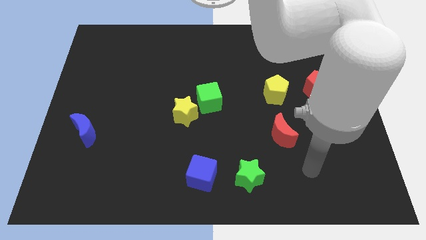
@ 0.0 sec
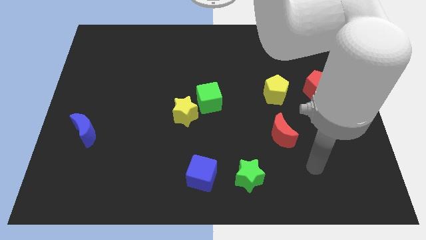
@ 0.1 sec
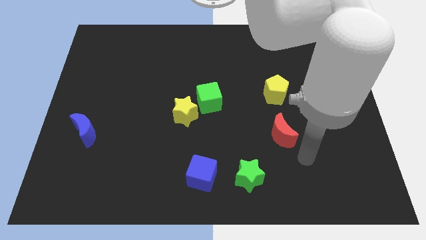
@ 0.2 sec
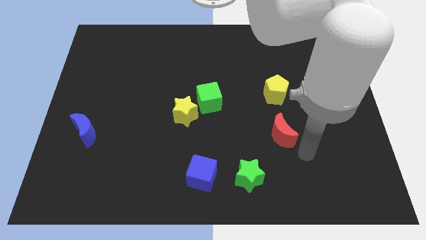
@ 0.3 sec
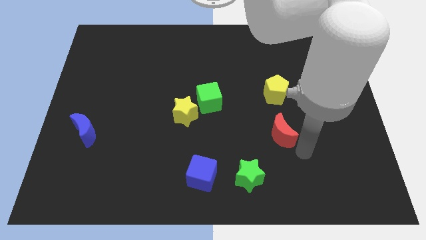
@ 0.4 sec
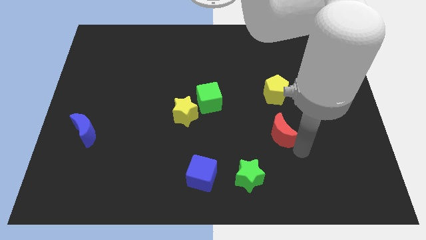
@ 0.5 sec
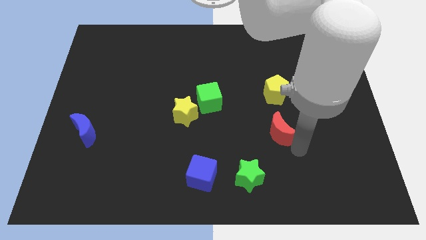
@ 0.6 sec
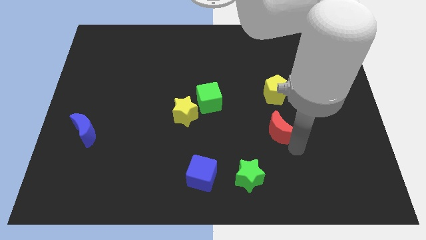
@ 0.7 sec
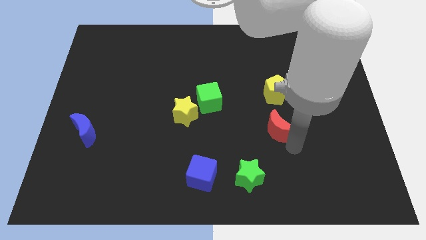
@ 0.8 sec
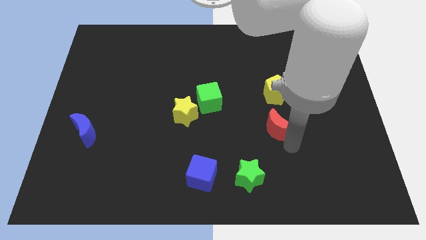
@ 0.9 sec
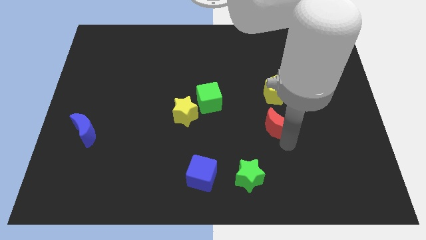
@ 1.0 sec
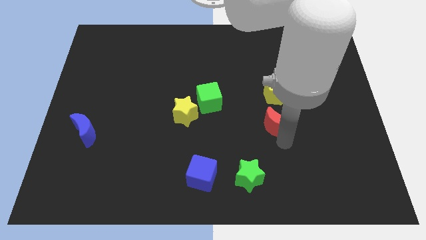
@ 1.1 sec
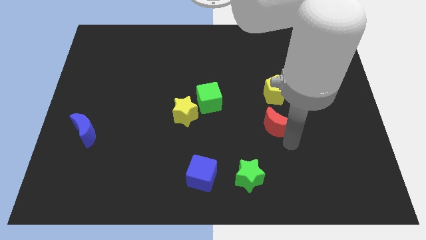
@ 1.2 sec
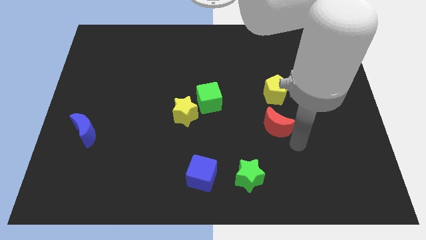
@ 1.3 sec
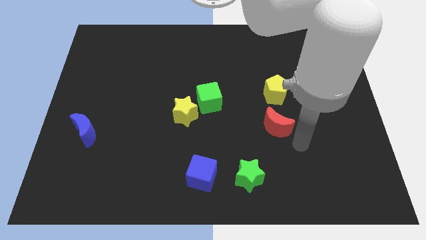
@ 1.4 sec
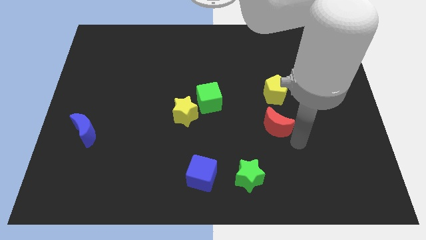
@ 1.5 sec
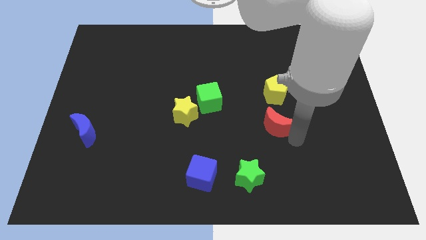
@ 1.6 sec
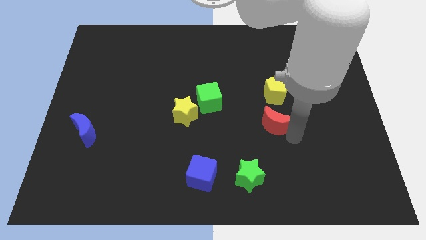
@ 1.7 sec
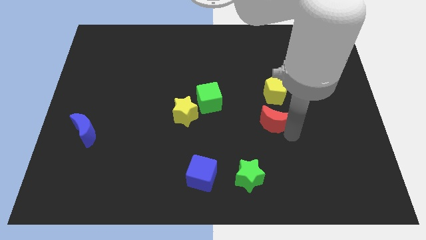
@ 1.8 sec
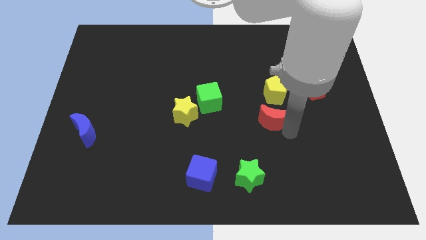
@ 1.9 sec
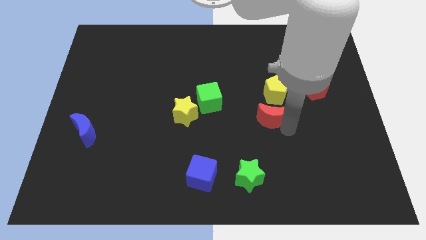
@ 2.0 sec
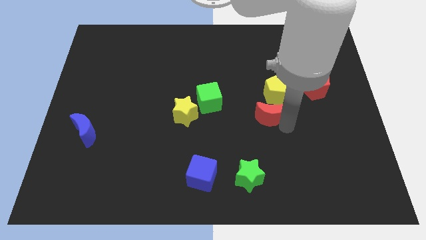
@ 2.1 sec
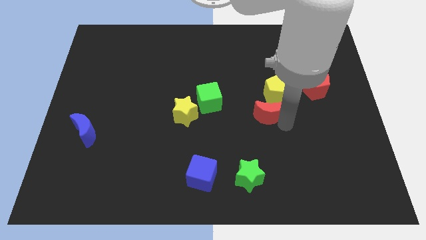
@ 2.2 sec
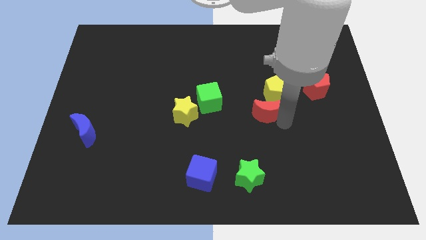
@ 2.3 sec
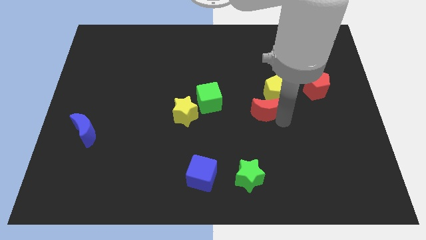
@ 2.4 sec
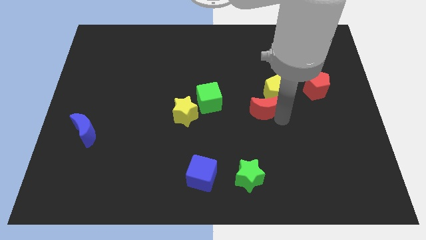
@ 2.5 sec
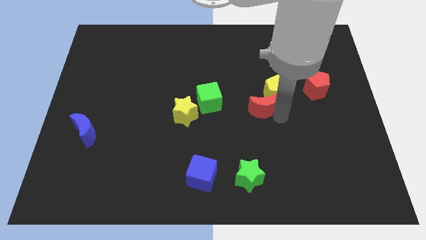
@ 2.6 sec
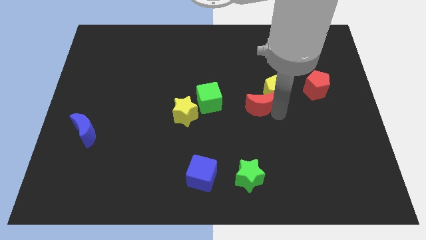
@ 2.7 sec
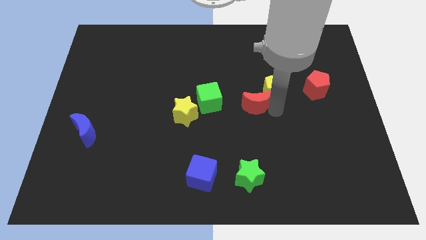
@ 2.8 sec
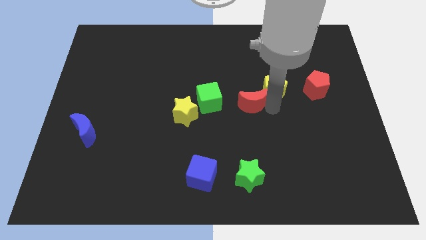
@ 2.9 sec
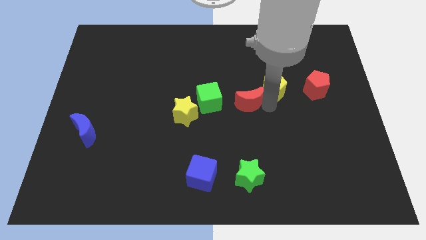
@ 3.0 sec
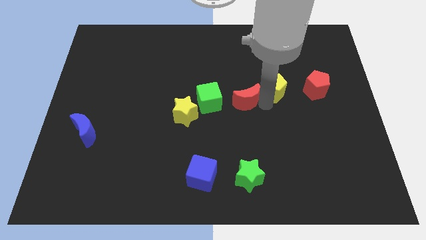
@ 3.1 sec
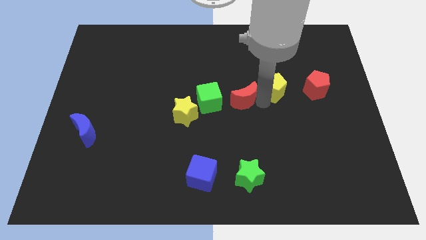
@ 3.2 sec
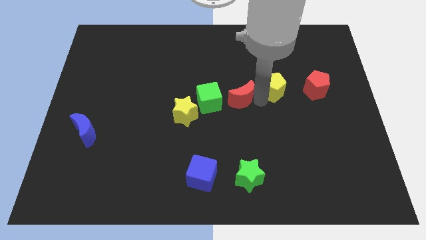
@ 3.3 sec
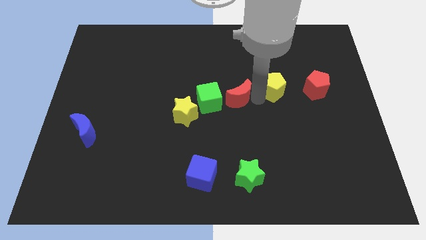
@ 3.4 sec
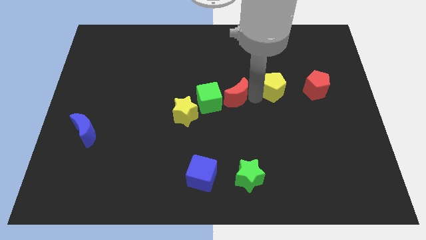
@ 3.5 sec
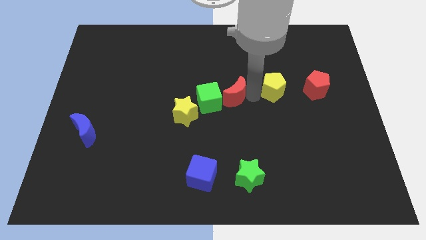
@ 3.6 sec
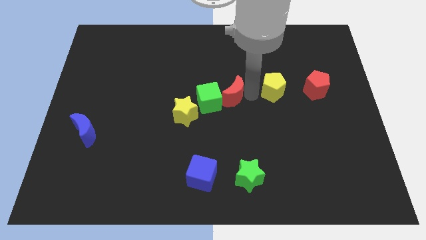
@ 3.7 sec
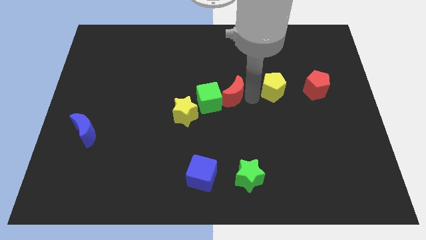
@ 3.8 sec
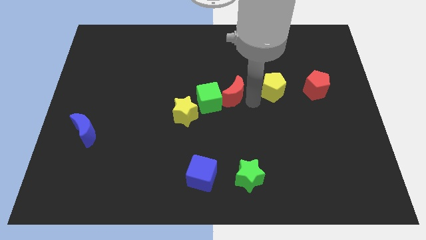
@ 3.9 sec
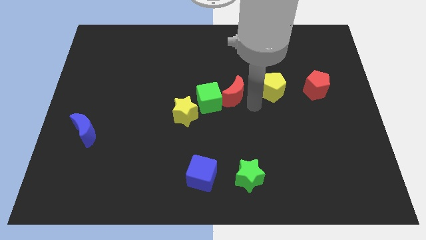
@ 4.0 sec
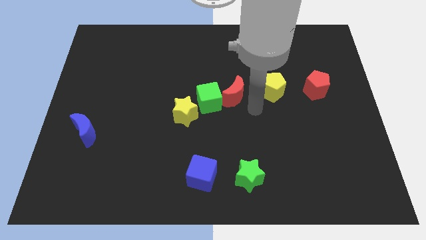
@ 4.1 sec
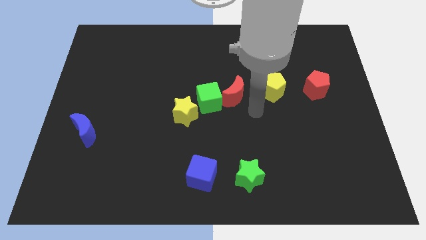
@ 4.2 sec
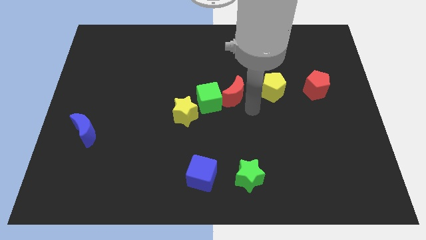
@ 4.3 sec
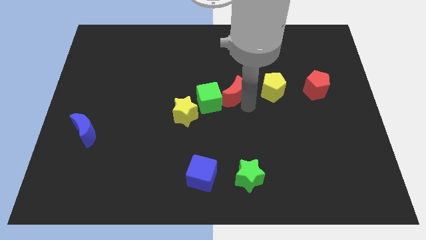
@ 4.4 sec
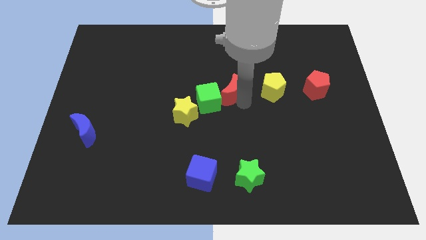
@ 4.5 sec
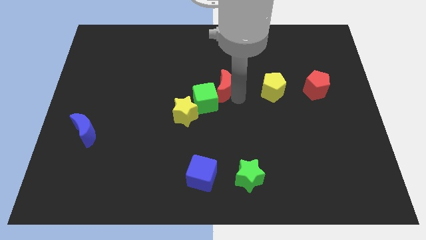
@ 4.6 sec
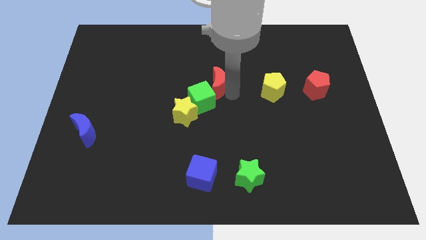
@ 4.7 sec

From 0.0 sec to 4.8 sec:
move the red moon up and then left

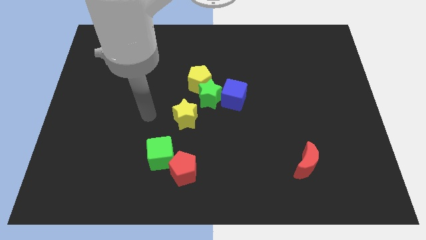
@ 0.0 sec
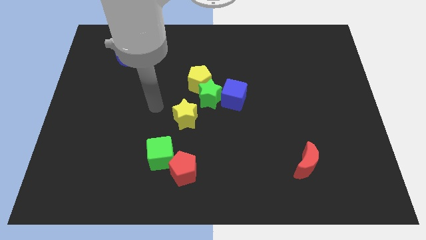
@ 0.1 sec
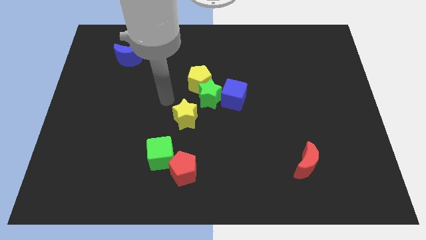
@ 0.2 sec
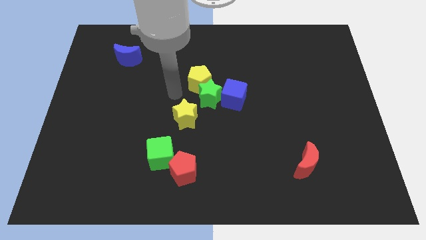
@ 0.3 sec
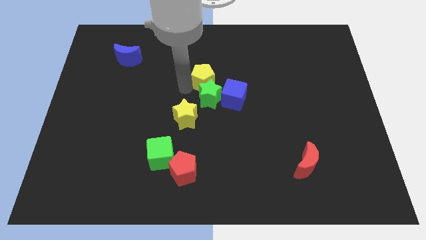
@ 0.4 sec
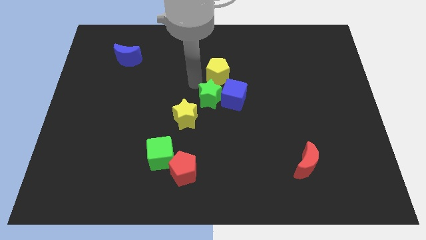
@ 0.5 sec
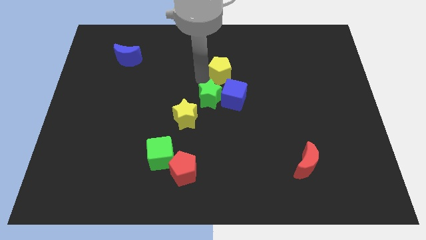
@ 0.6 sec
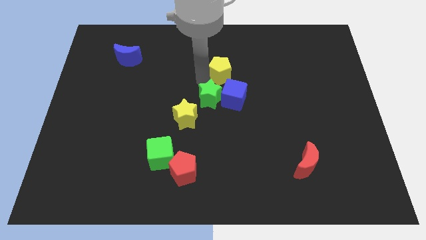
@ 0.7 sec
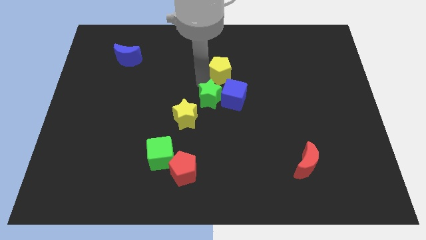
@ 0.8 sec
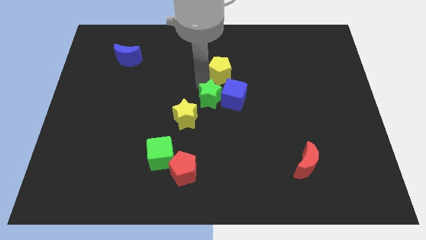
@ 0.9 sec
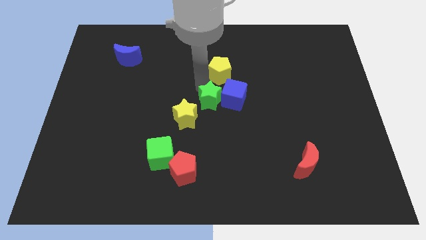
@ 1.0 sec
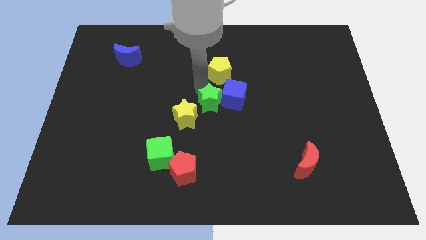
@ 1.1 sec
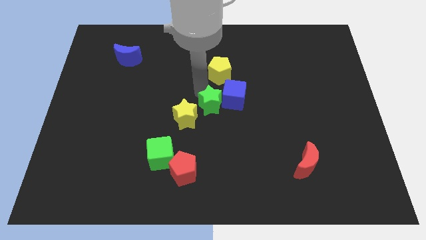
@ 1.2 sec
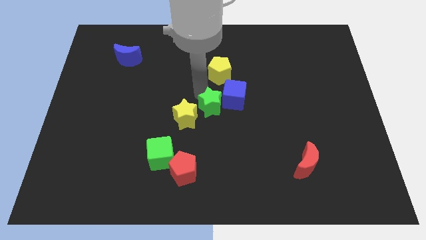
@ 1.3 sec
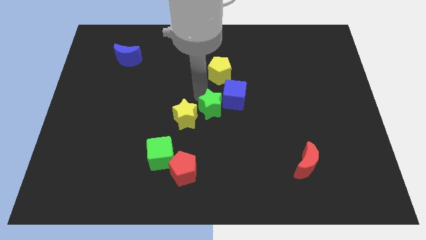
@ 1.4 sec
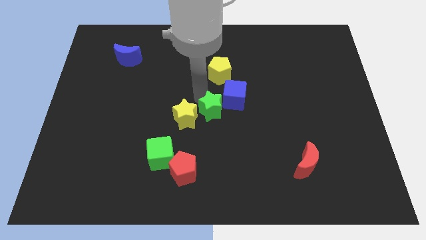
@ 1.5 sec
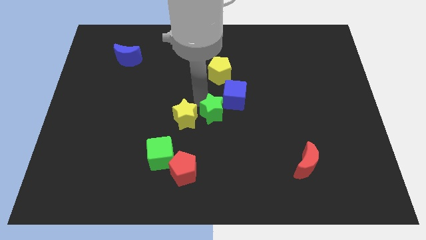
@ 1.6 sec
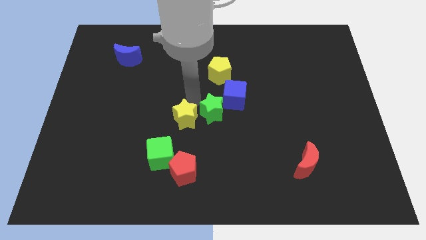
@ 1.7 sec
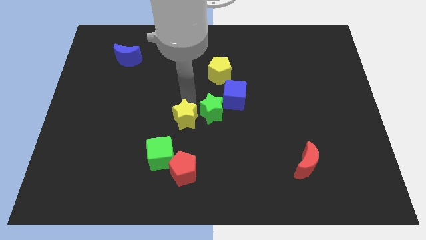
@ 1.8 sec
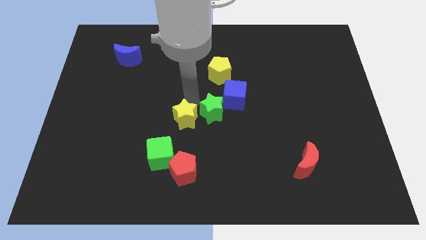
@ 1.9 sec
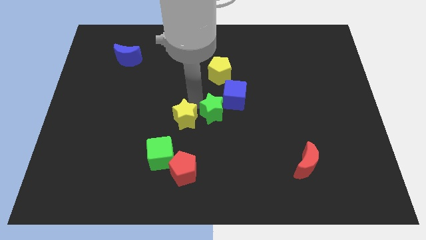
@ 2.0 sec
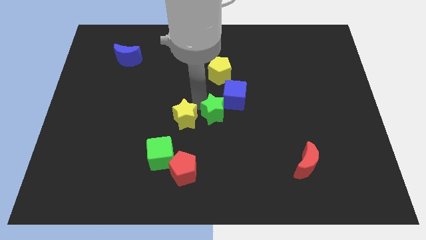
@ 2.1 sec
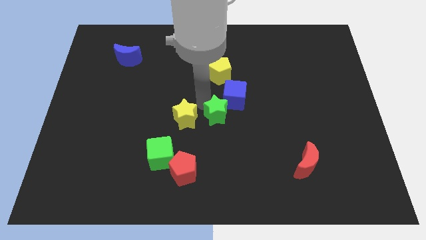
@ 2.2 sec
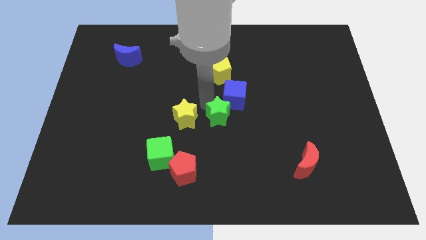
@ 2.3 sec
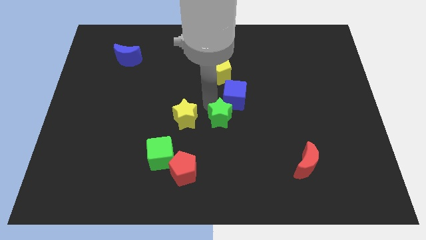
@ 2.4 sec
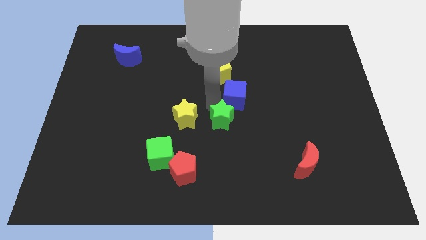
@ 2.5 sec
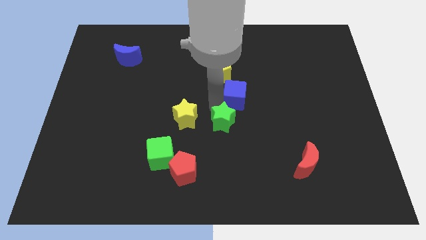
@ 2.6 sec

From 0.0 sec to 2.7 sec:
push the green star diagonally downwards and right slightly

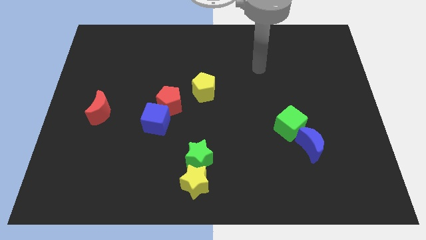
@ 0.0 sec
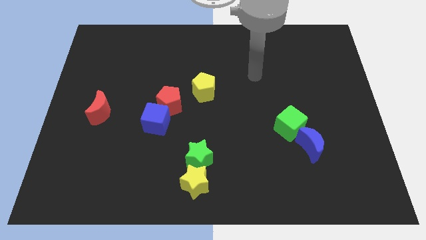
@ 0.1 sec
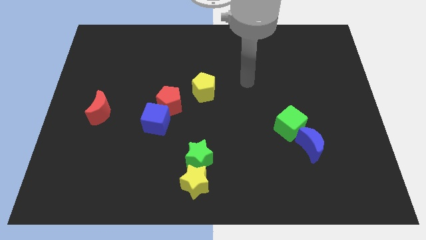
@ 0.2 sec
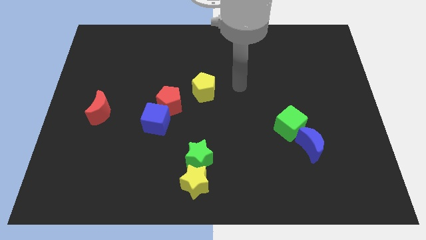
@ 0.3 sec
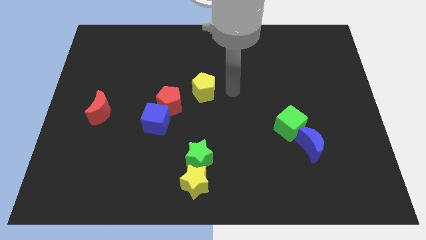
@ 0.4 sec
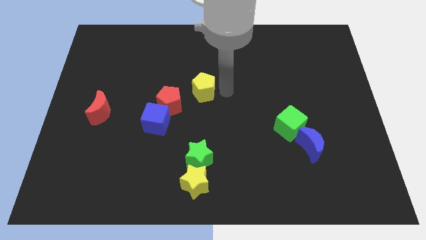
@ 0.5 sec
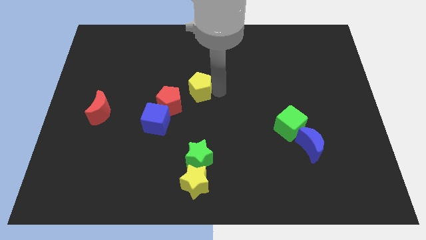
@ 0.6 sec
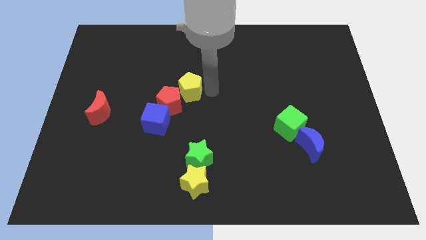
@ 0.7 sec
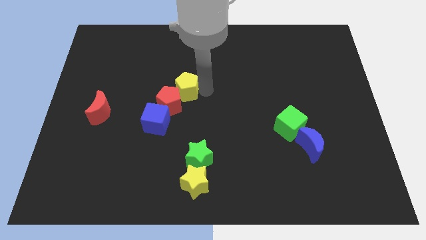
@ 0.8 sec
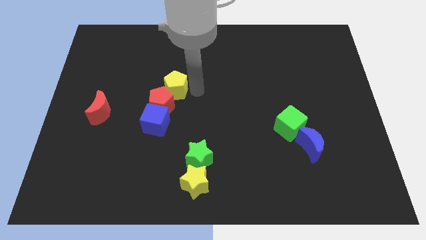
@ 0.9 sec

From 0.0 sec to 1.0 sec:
slightly push the yellow pentagon left
